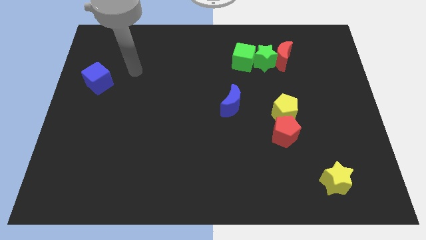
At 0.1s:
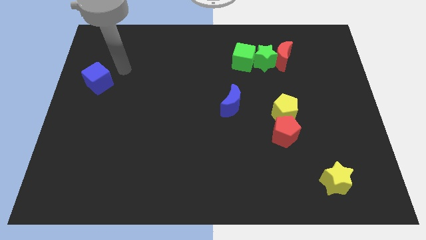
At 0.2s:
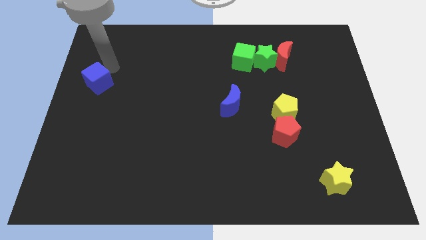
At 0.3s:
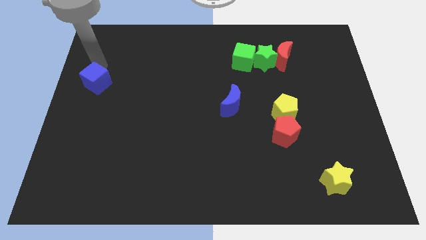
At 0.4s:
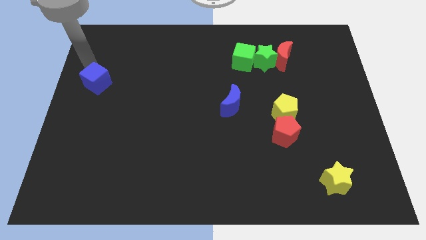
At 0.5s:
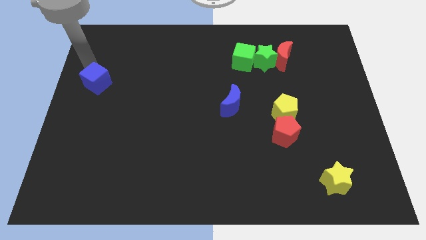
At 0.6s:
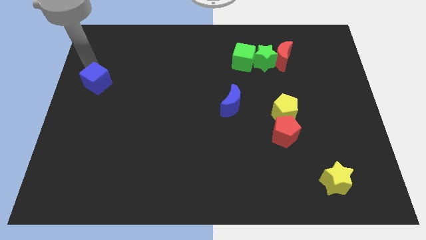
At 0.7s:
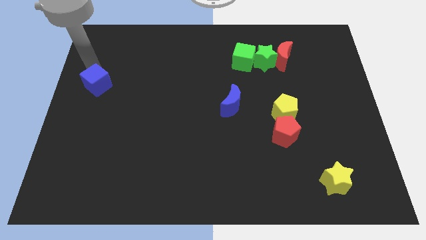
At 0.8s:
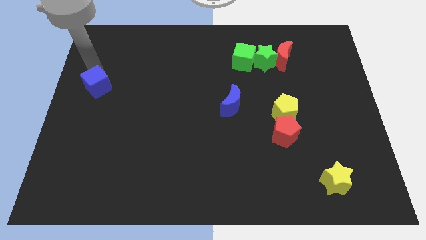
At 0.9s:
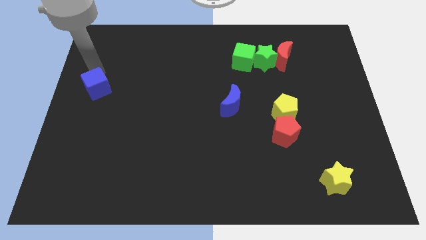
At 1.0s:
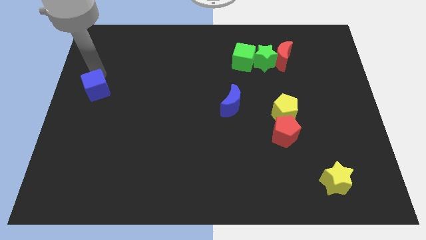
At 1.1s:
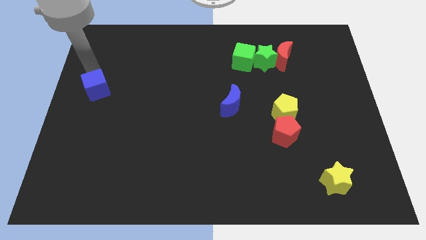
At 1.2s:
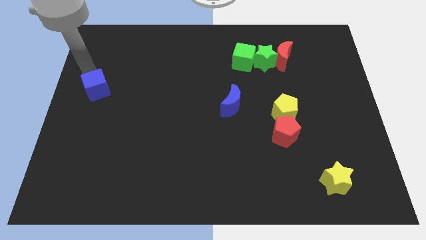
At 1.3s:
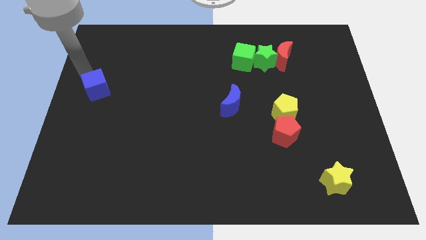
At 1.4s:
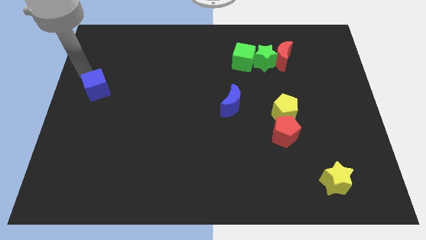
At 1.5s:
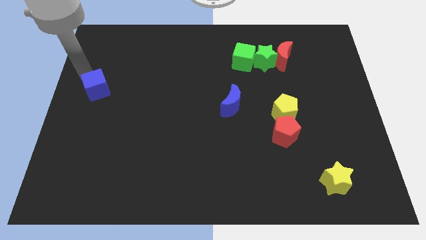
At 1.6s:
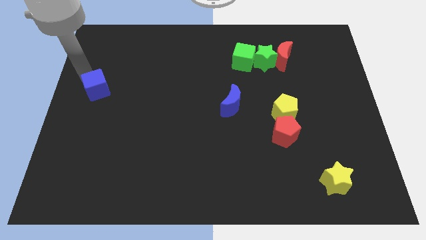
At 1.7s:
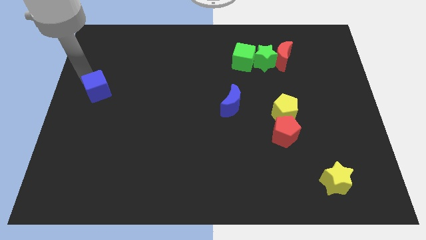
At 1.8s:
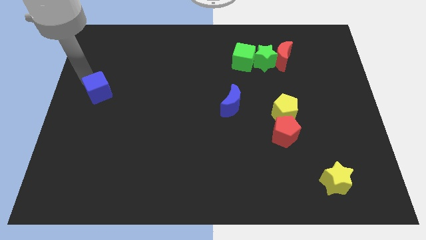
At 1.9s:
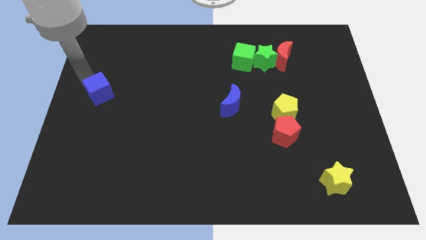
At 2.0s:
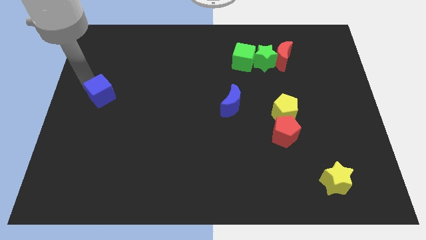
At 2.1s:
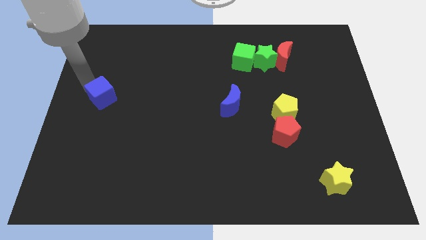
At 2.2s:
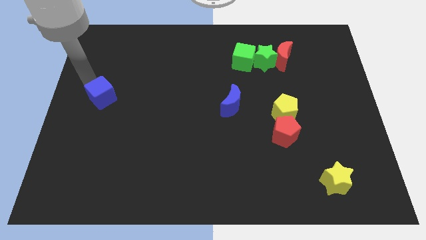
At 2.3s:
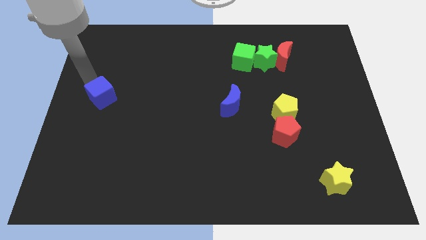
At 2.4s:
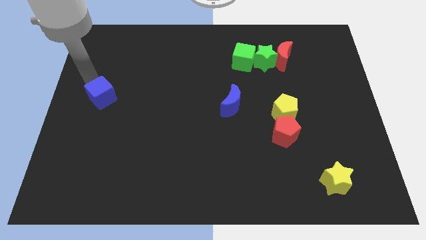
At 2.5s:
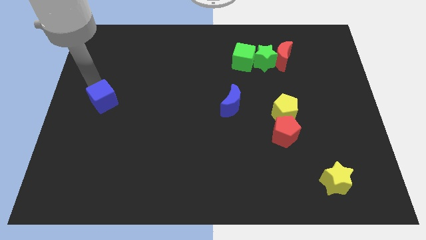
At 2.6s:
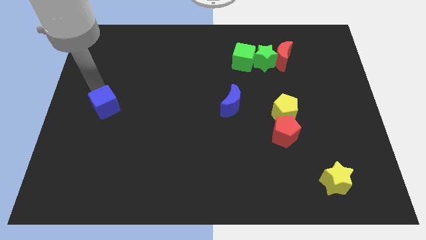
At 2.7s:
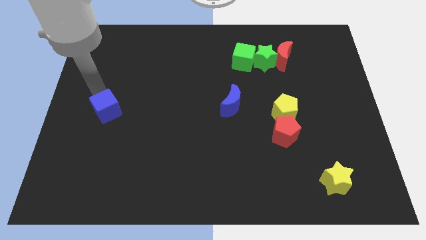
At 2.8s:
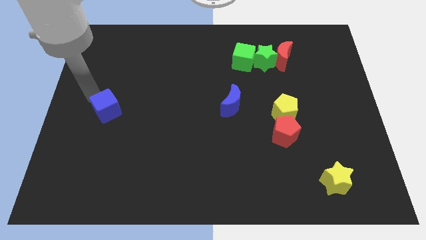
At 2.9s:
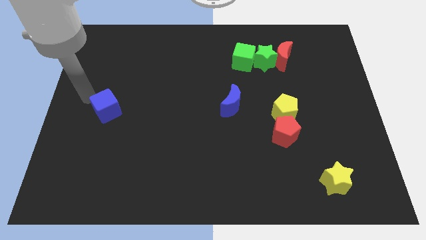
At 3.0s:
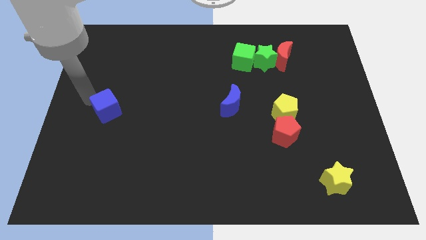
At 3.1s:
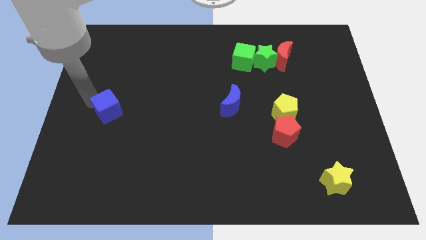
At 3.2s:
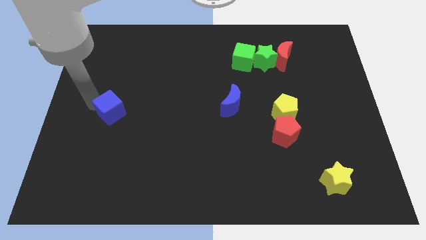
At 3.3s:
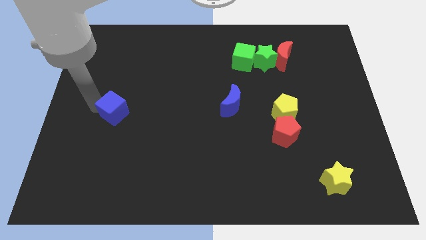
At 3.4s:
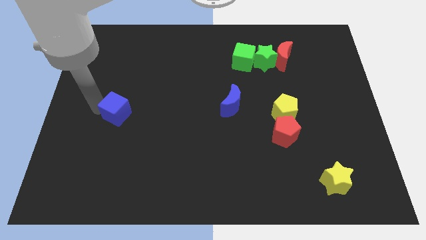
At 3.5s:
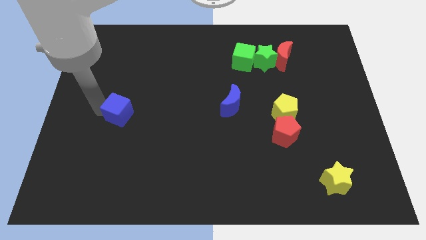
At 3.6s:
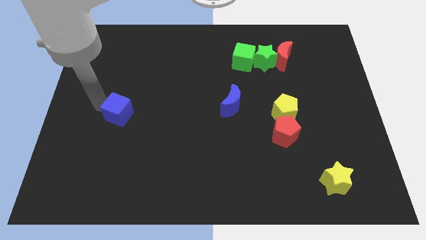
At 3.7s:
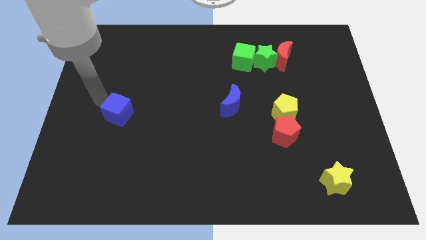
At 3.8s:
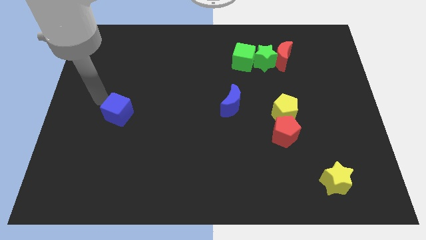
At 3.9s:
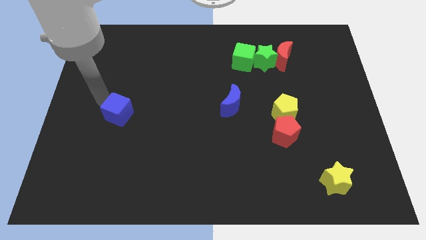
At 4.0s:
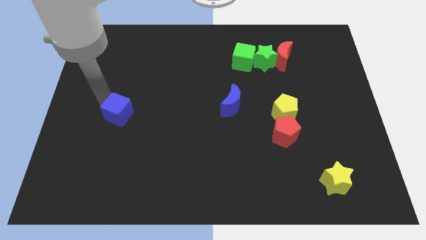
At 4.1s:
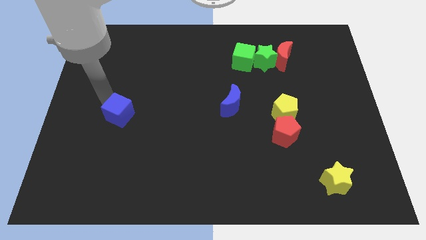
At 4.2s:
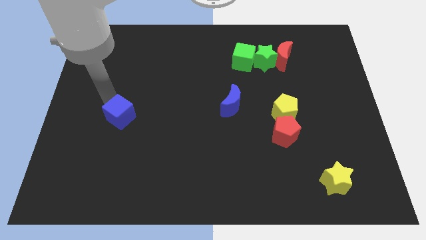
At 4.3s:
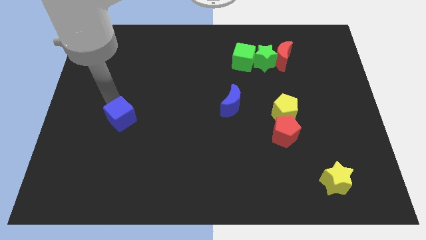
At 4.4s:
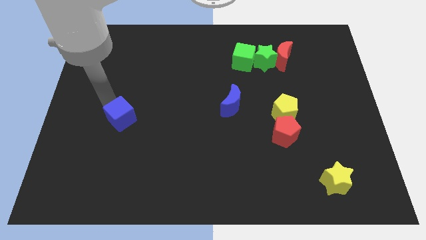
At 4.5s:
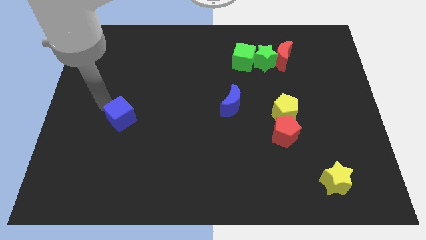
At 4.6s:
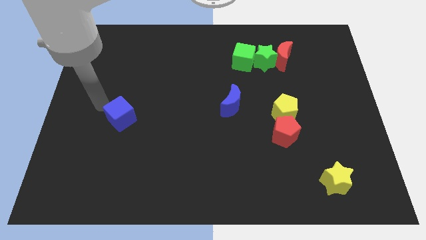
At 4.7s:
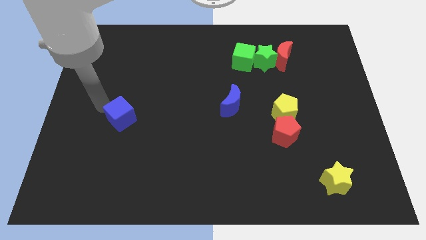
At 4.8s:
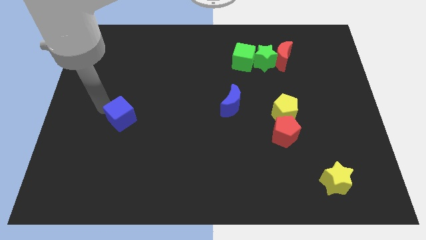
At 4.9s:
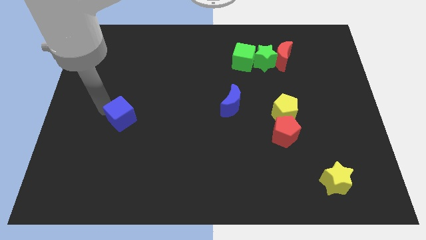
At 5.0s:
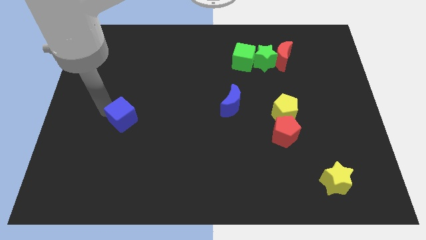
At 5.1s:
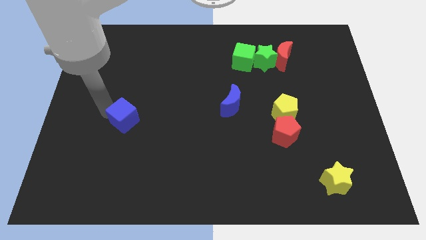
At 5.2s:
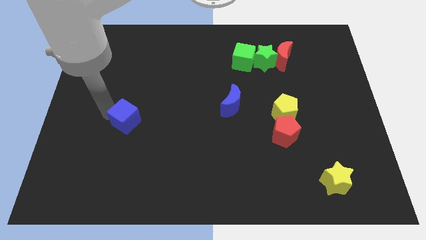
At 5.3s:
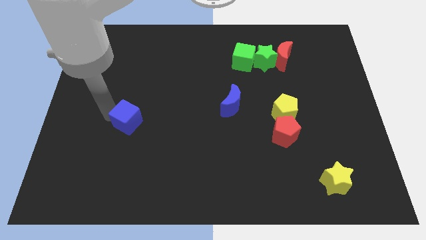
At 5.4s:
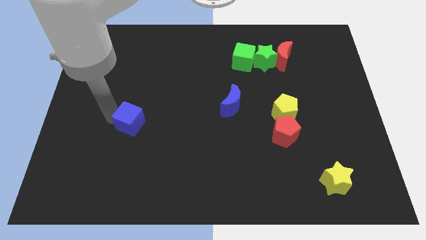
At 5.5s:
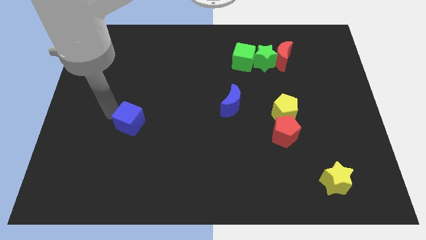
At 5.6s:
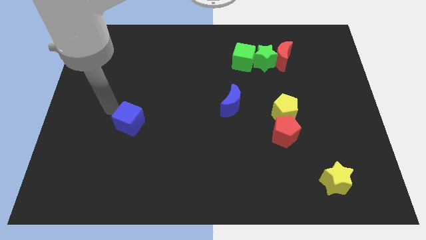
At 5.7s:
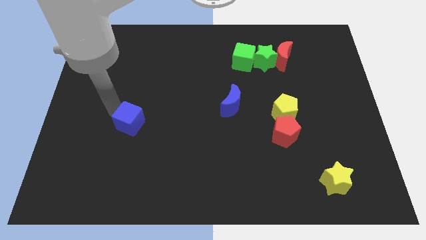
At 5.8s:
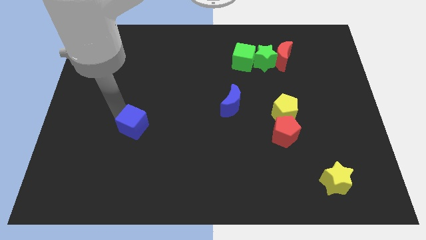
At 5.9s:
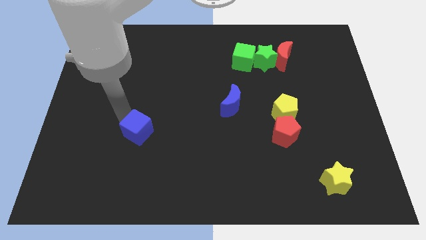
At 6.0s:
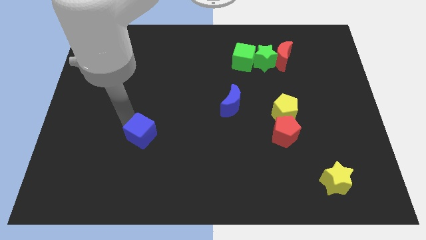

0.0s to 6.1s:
move the blue cube down and right

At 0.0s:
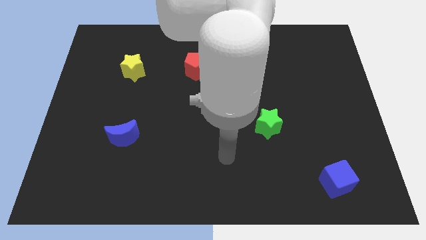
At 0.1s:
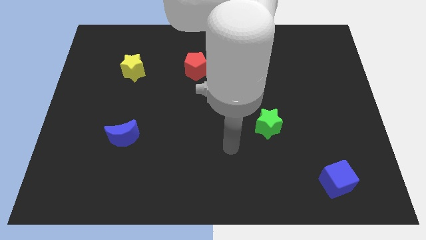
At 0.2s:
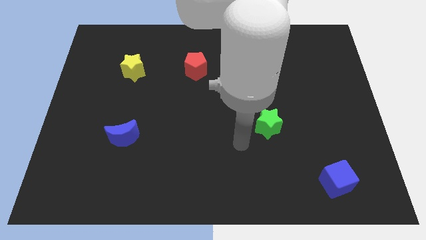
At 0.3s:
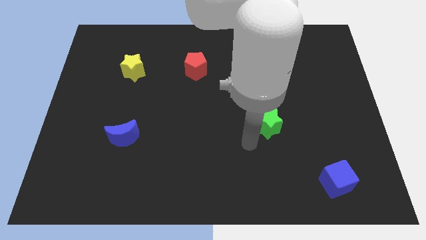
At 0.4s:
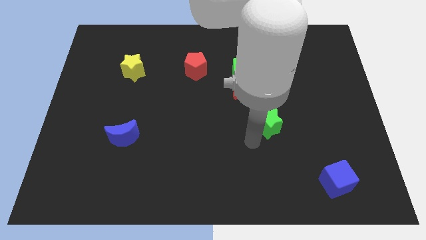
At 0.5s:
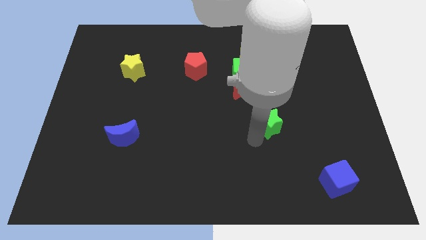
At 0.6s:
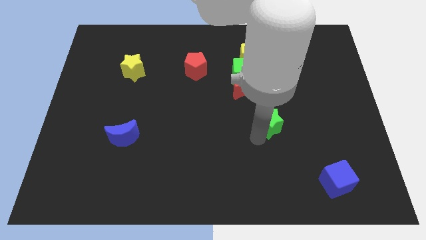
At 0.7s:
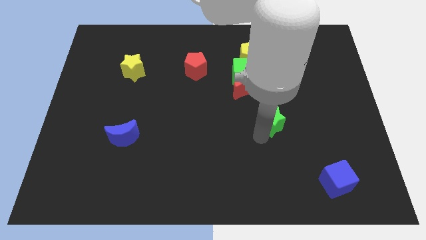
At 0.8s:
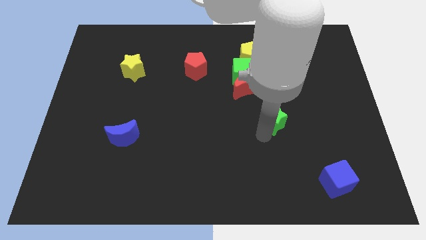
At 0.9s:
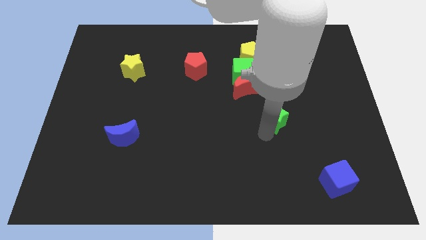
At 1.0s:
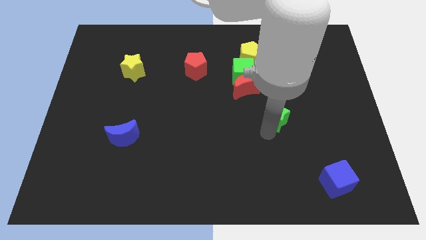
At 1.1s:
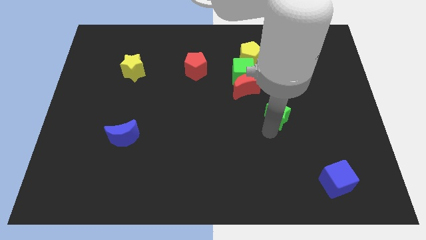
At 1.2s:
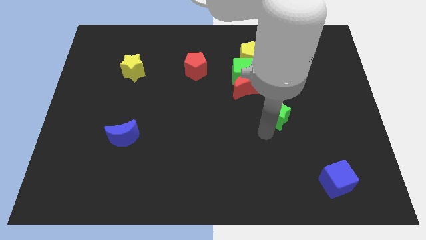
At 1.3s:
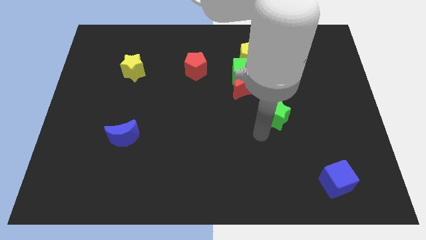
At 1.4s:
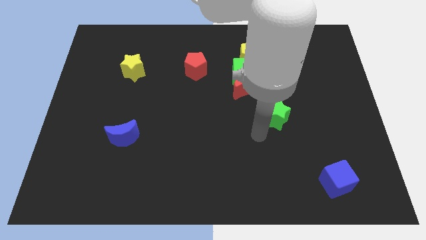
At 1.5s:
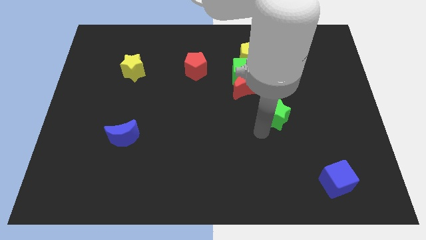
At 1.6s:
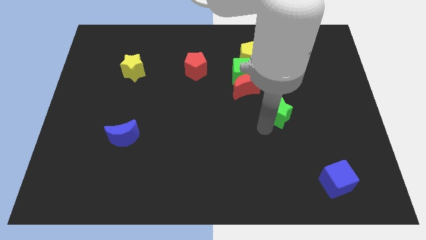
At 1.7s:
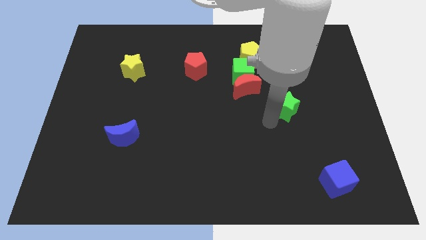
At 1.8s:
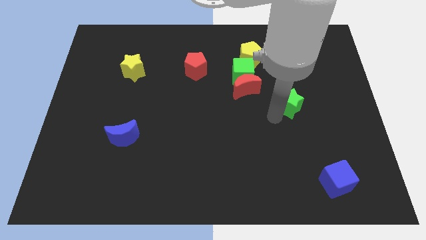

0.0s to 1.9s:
move the green star slightly diagonally upwards and right
